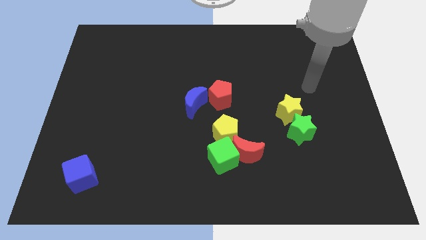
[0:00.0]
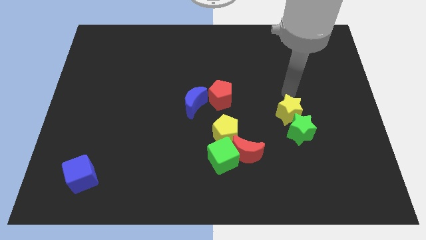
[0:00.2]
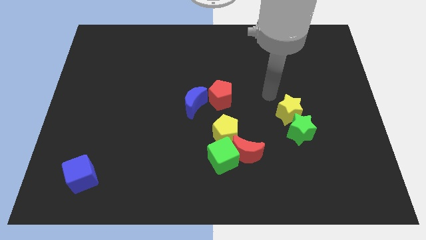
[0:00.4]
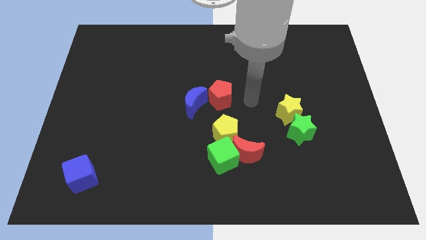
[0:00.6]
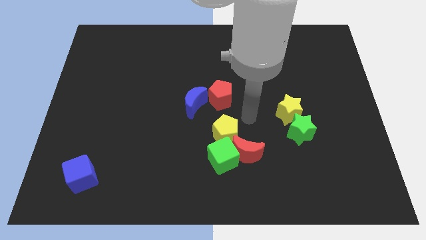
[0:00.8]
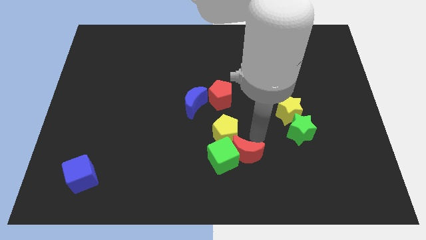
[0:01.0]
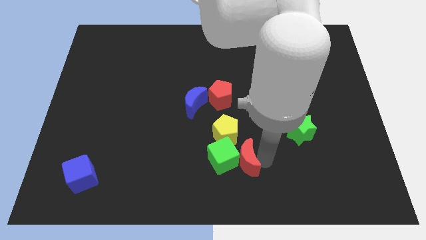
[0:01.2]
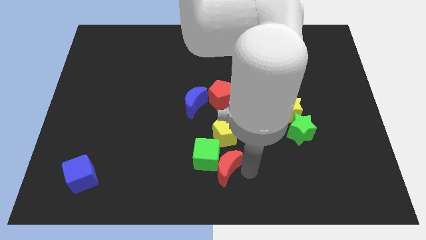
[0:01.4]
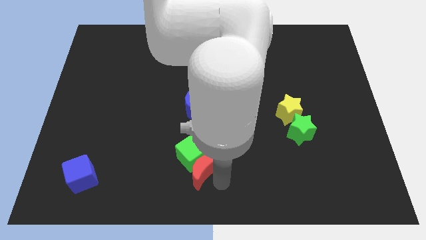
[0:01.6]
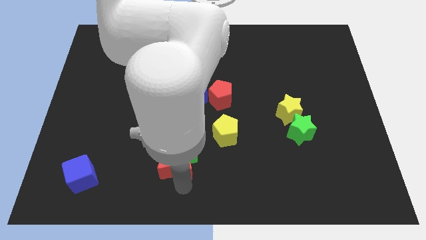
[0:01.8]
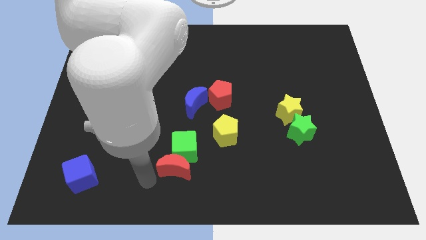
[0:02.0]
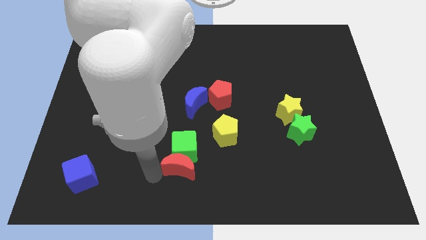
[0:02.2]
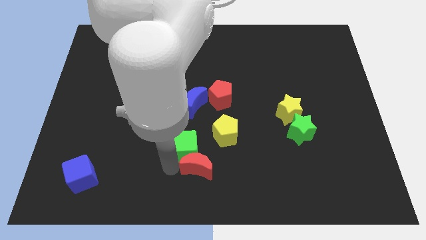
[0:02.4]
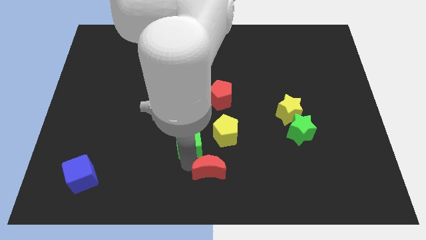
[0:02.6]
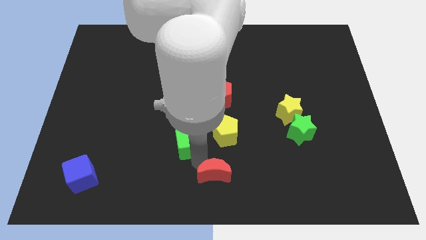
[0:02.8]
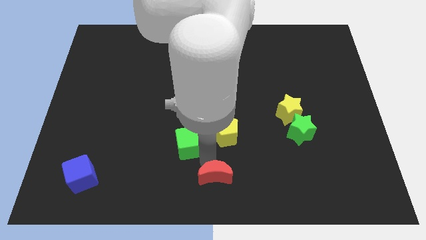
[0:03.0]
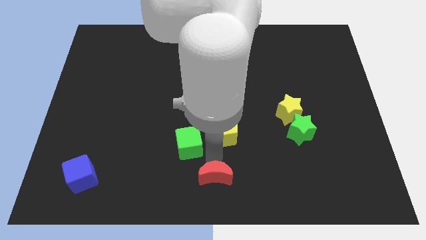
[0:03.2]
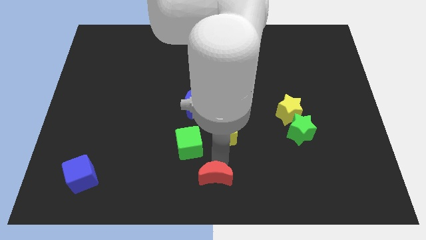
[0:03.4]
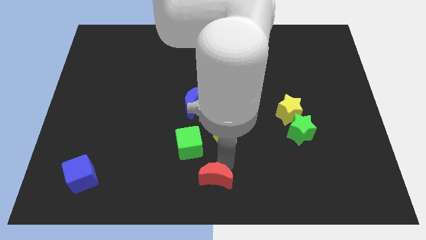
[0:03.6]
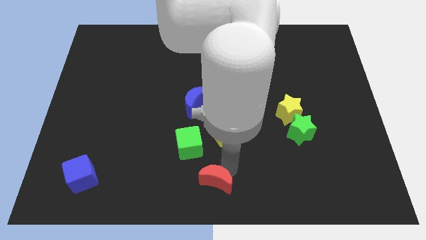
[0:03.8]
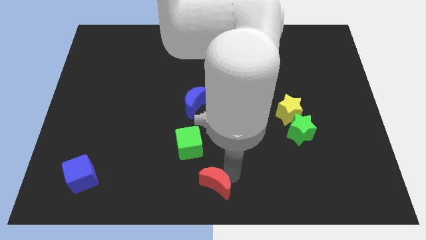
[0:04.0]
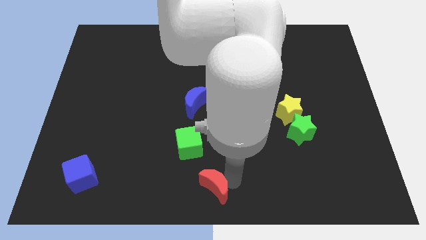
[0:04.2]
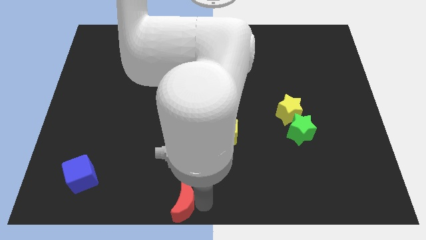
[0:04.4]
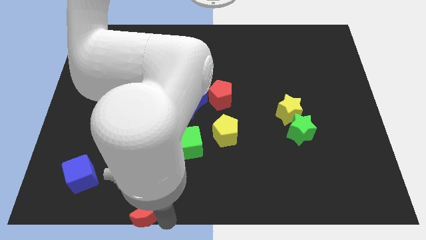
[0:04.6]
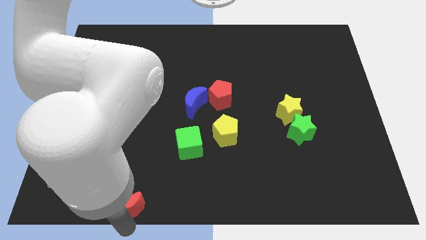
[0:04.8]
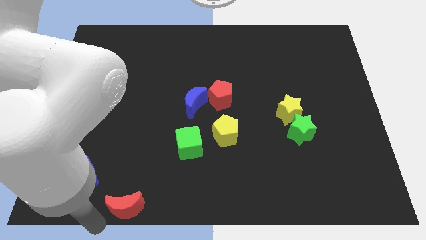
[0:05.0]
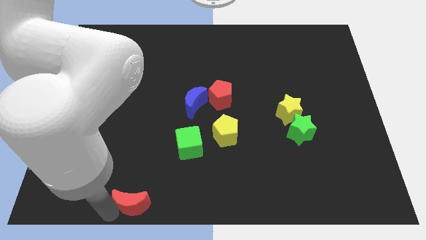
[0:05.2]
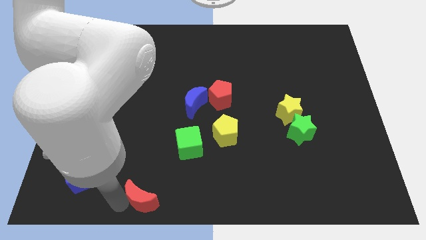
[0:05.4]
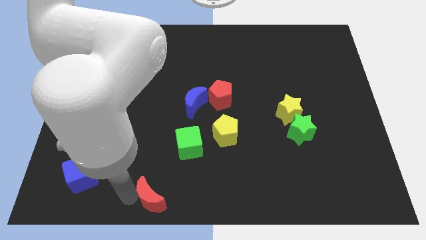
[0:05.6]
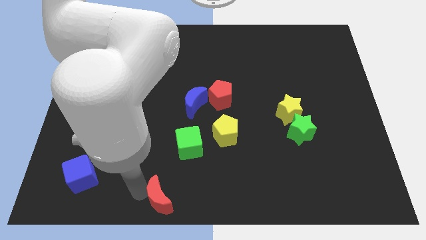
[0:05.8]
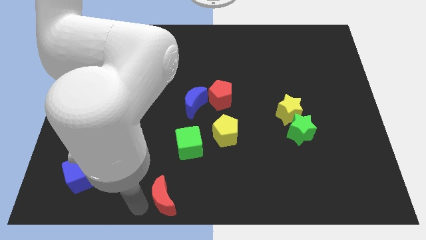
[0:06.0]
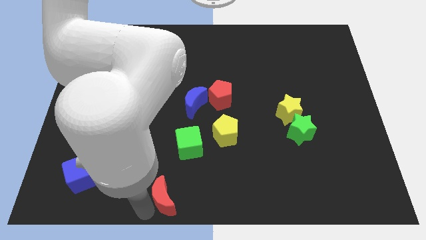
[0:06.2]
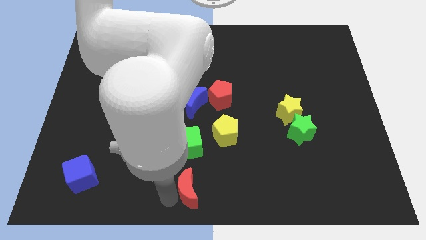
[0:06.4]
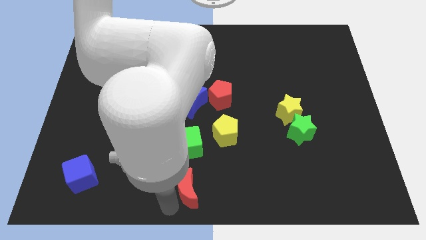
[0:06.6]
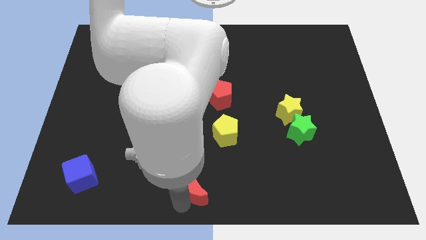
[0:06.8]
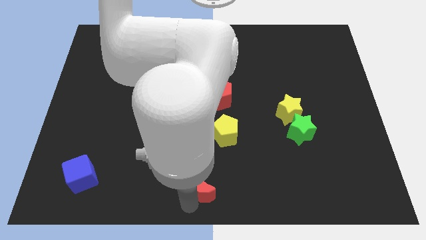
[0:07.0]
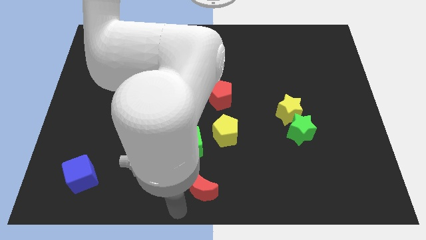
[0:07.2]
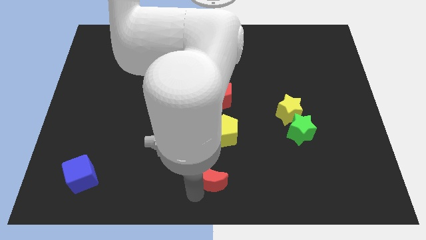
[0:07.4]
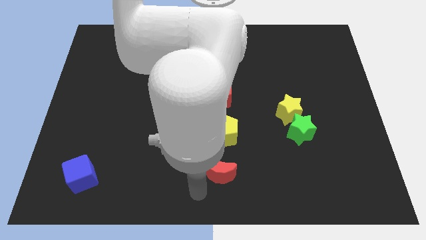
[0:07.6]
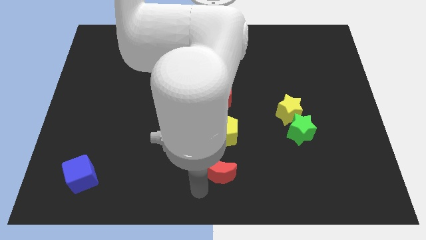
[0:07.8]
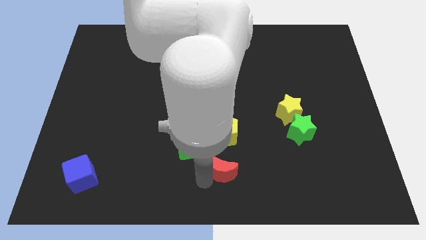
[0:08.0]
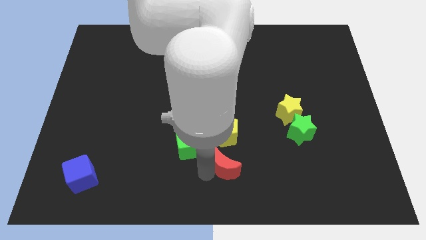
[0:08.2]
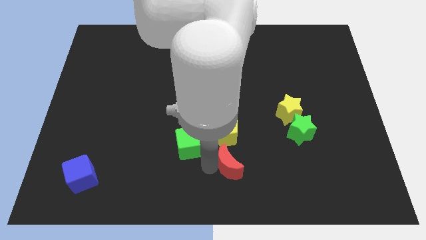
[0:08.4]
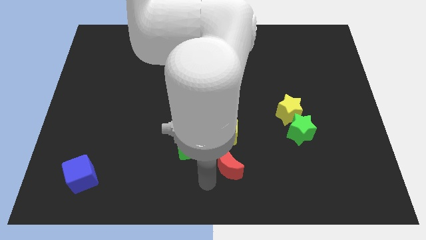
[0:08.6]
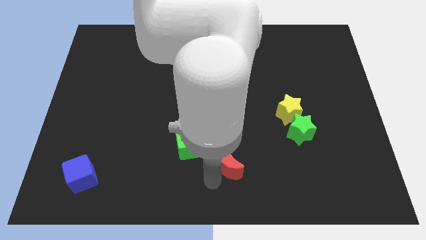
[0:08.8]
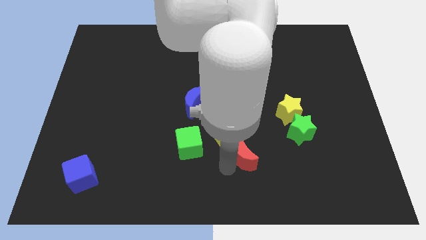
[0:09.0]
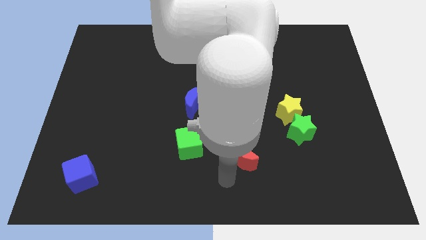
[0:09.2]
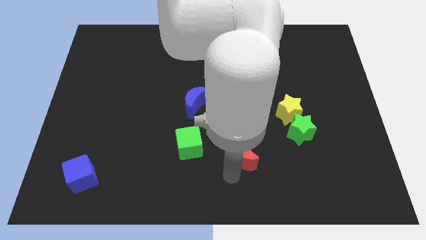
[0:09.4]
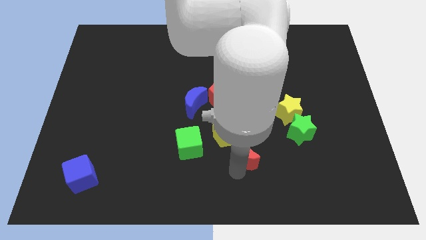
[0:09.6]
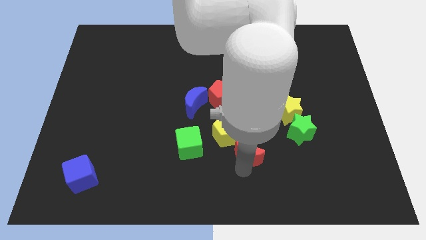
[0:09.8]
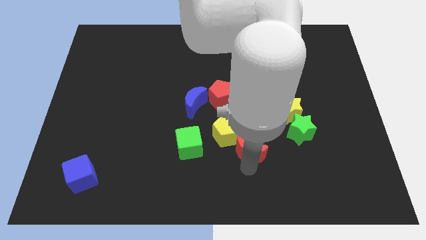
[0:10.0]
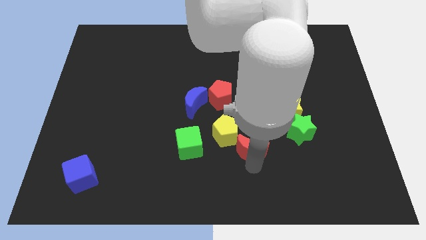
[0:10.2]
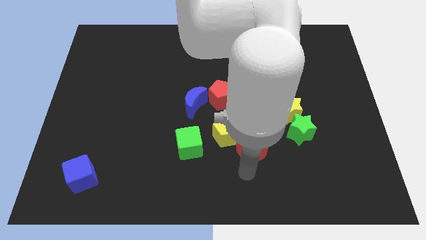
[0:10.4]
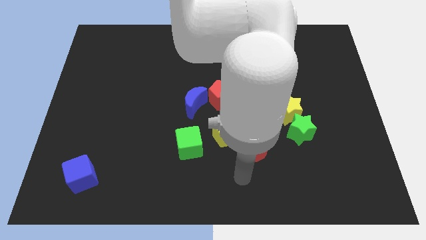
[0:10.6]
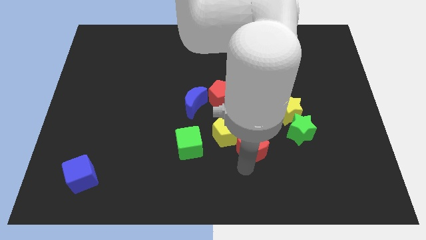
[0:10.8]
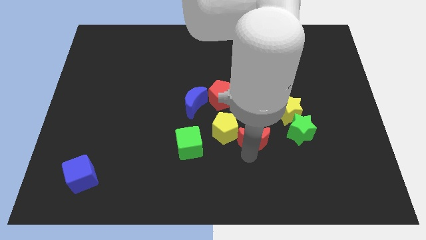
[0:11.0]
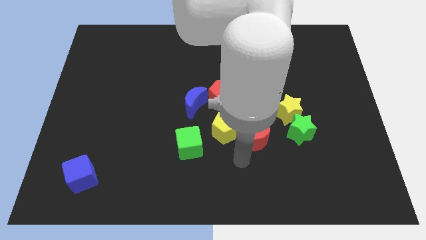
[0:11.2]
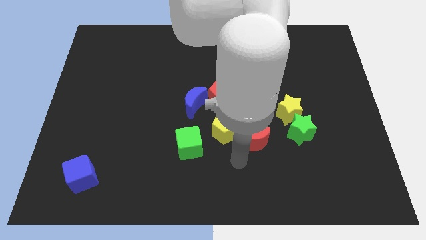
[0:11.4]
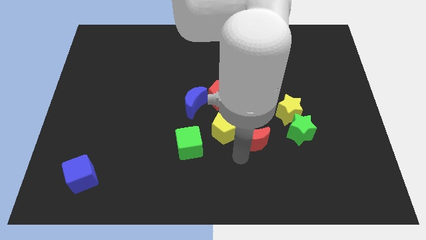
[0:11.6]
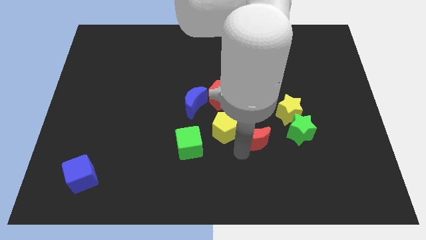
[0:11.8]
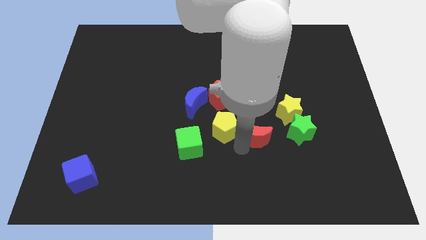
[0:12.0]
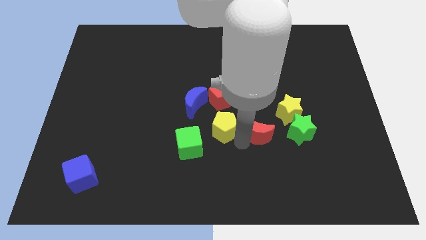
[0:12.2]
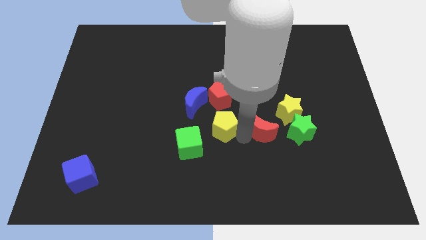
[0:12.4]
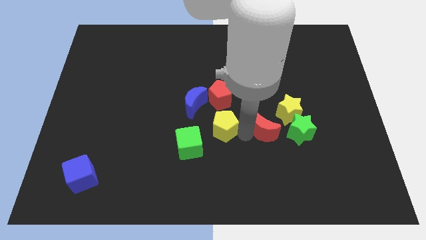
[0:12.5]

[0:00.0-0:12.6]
slightly slide the red moon diagonally upwards and to the right

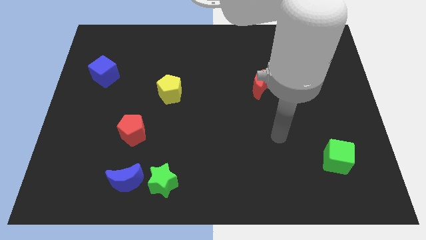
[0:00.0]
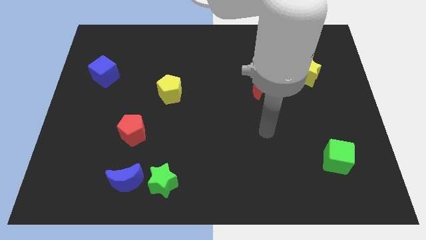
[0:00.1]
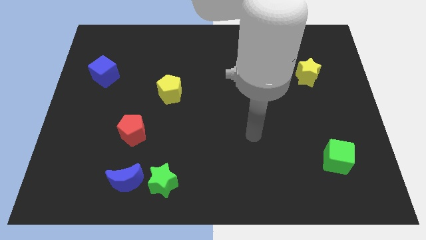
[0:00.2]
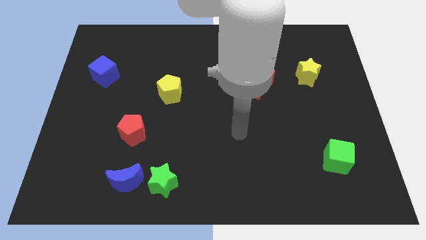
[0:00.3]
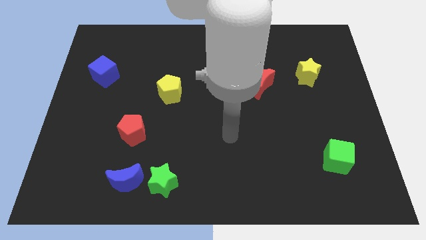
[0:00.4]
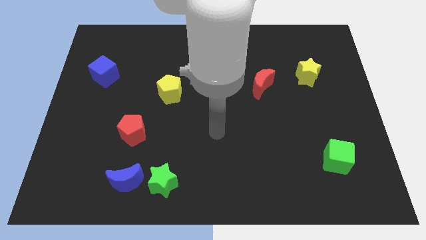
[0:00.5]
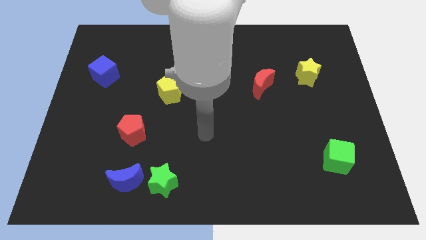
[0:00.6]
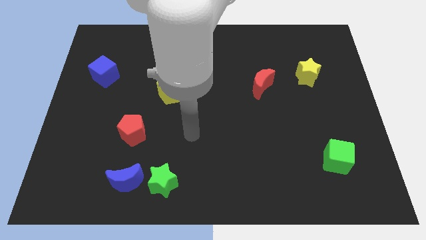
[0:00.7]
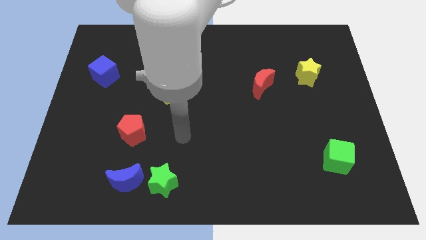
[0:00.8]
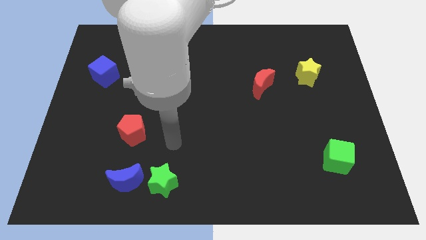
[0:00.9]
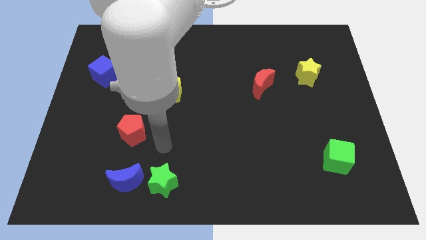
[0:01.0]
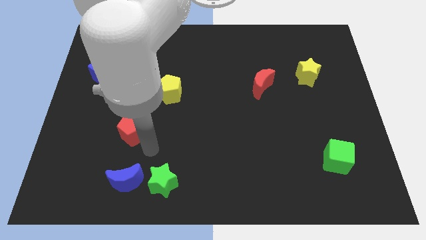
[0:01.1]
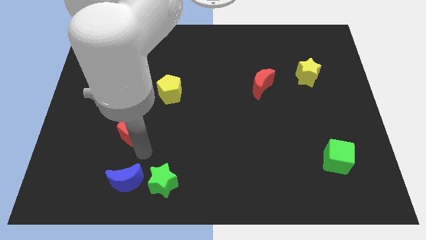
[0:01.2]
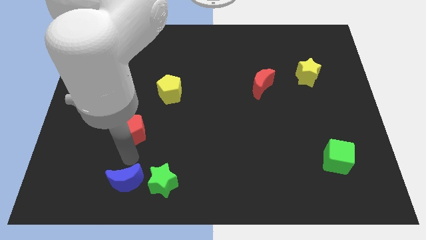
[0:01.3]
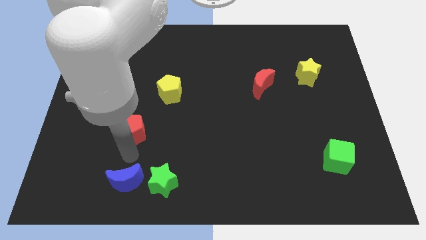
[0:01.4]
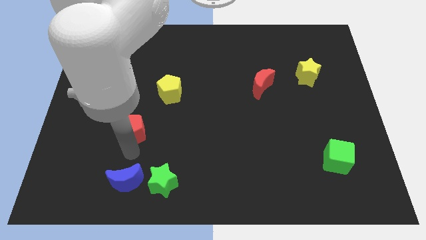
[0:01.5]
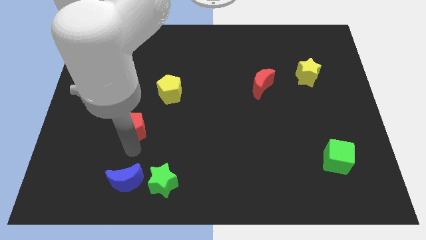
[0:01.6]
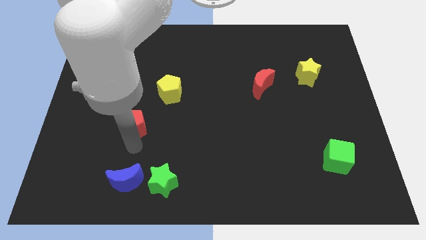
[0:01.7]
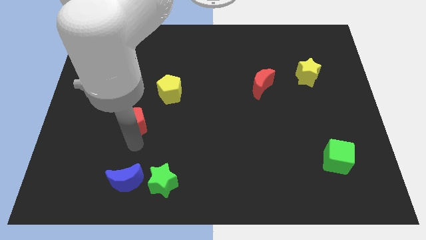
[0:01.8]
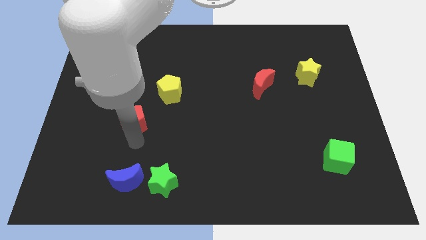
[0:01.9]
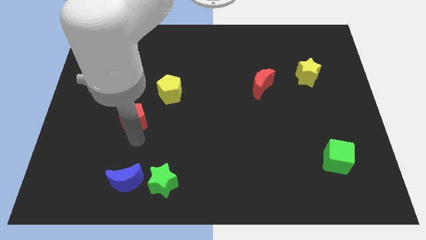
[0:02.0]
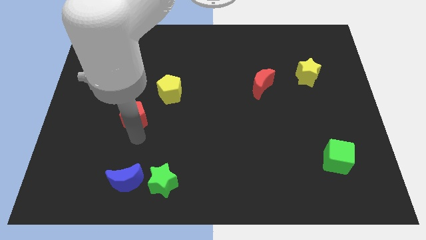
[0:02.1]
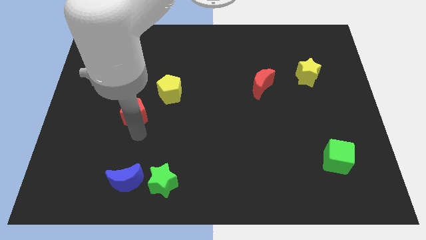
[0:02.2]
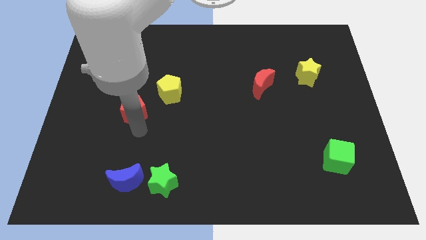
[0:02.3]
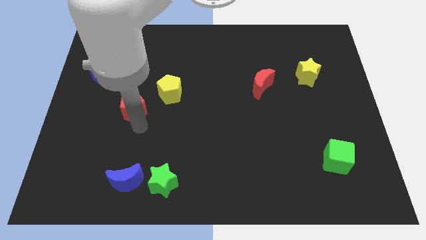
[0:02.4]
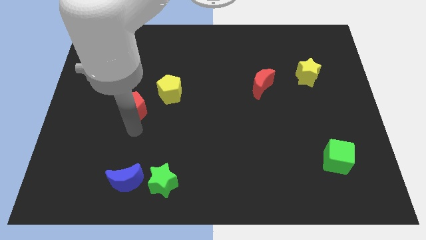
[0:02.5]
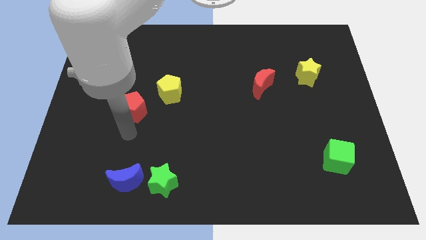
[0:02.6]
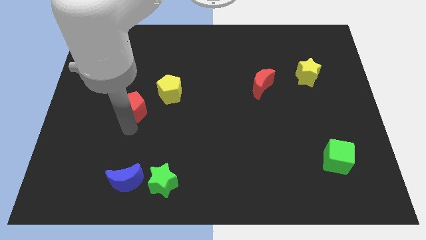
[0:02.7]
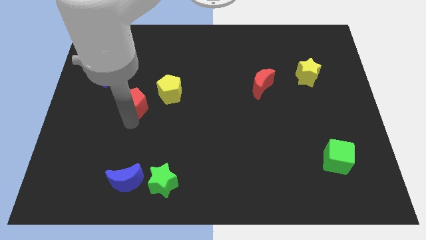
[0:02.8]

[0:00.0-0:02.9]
push the red pentagon upwards slightly
